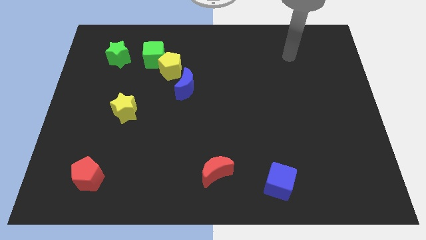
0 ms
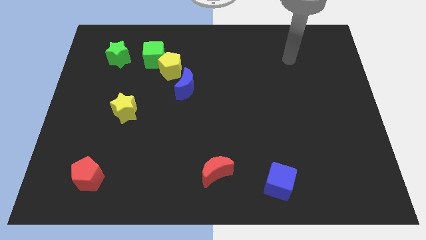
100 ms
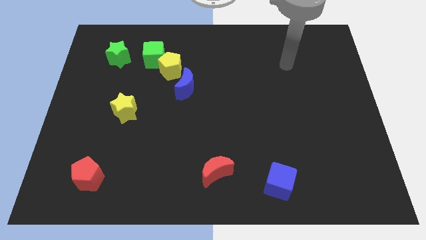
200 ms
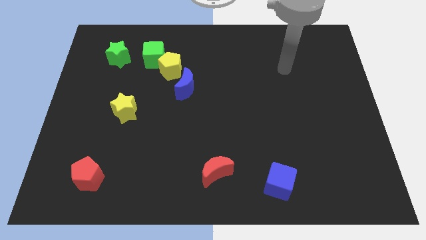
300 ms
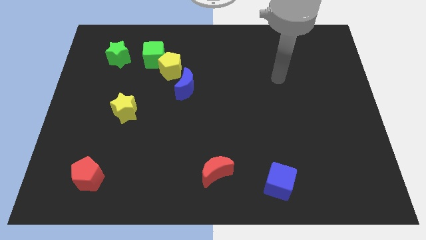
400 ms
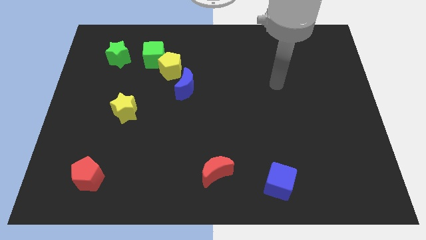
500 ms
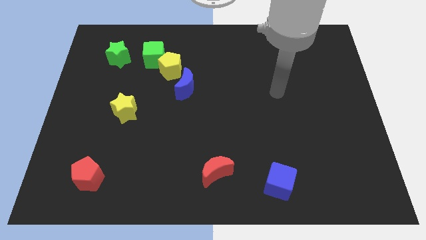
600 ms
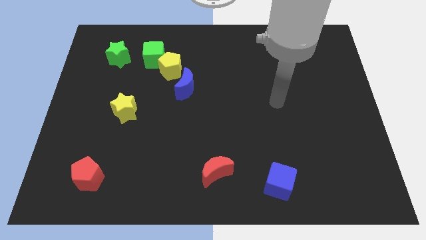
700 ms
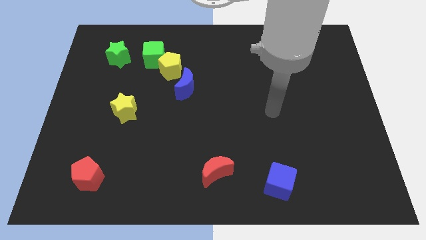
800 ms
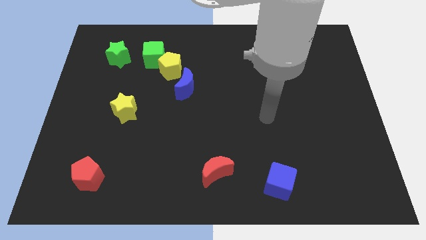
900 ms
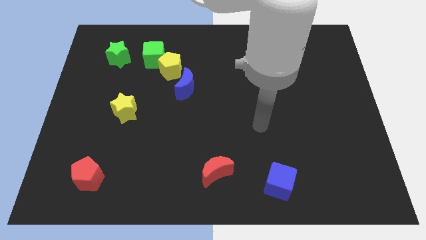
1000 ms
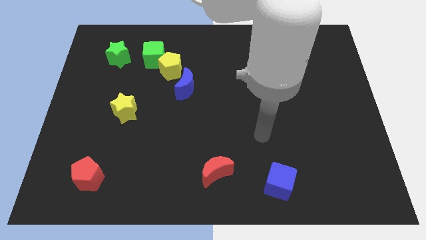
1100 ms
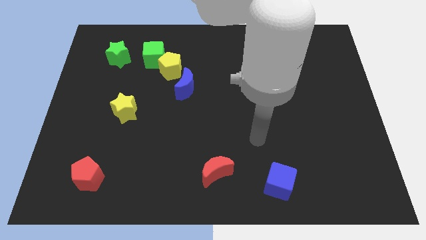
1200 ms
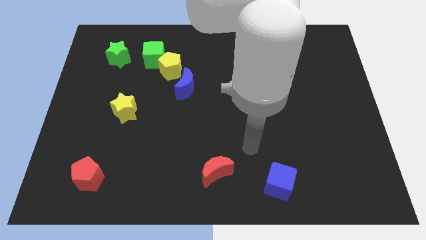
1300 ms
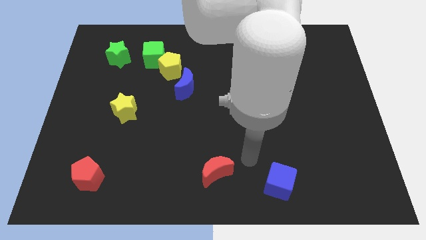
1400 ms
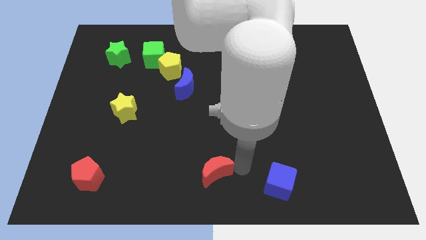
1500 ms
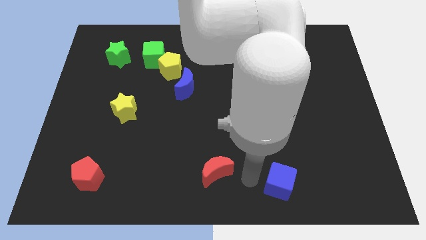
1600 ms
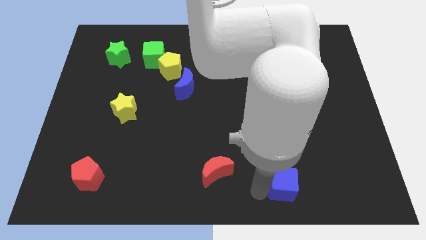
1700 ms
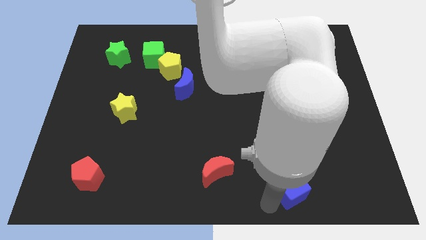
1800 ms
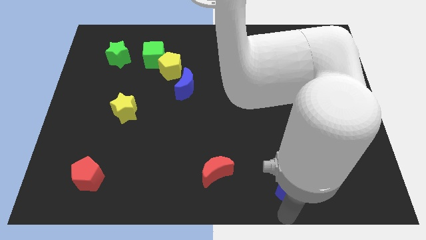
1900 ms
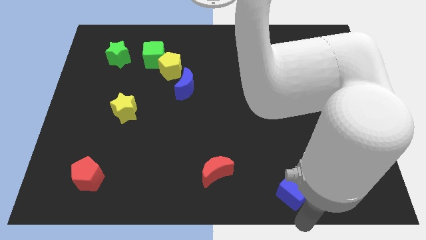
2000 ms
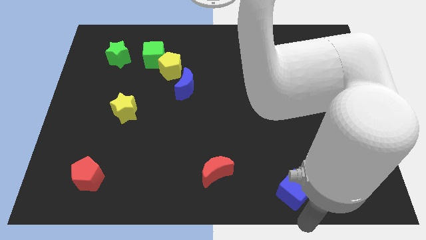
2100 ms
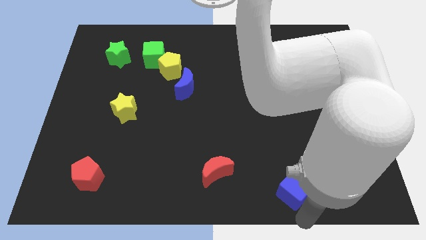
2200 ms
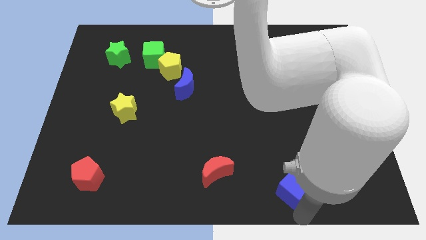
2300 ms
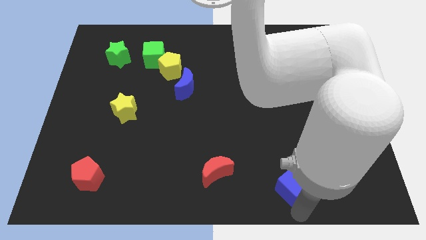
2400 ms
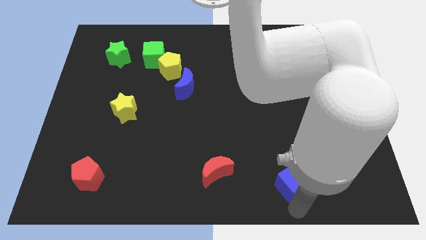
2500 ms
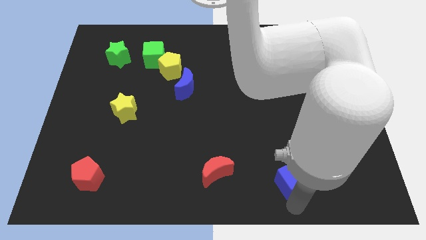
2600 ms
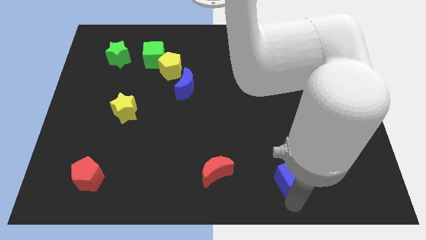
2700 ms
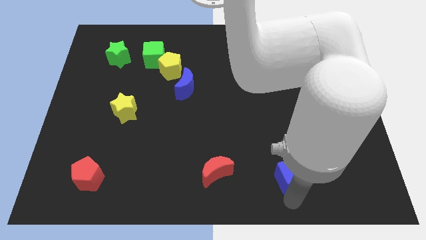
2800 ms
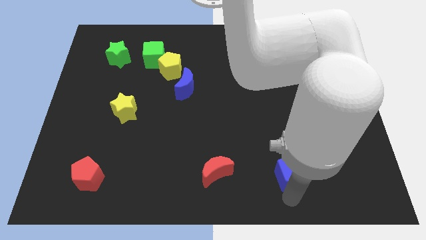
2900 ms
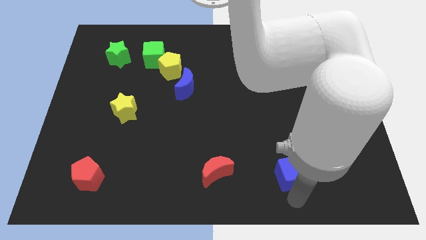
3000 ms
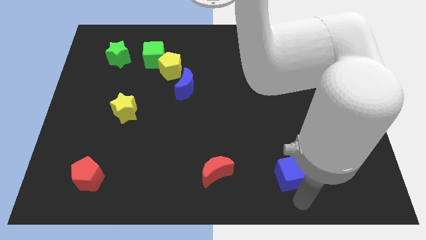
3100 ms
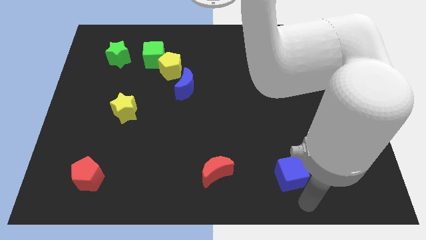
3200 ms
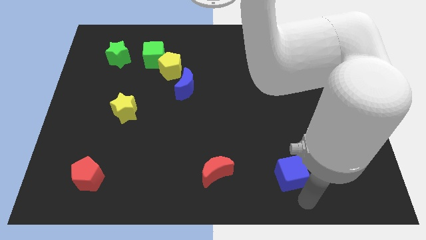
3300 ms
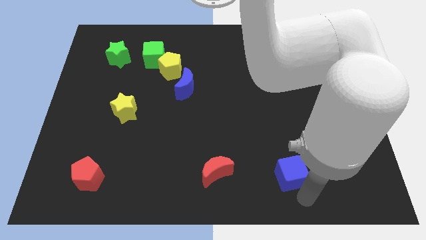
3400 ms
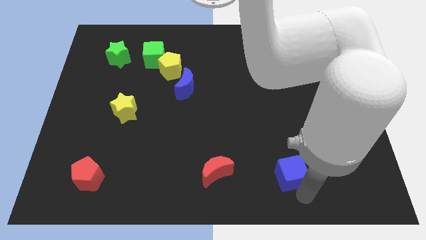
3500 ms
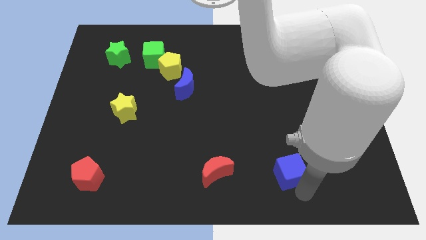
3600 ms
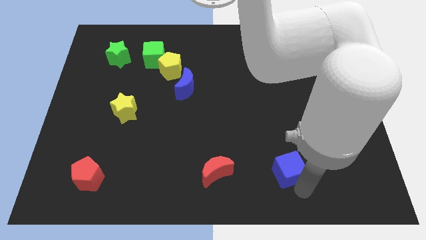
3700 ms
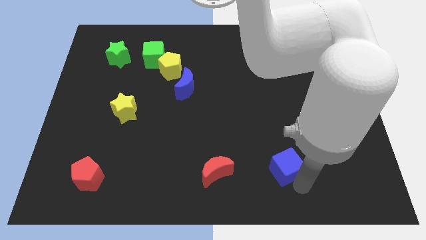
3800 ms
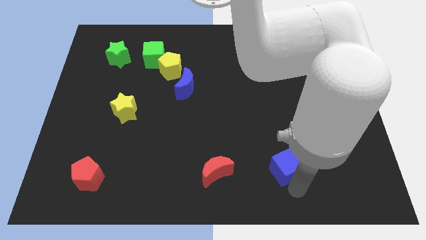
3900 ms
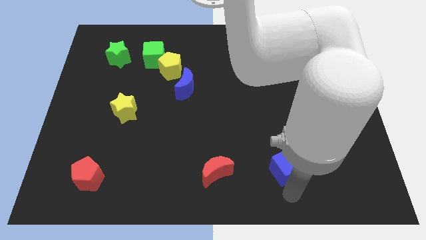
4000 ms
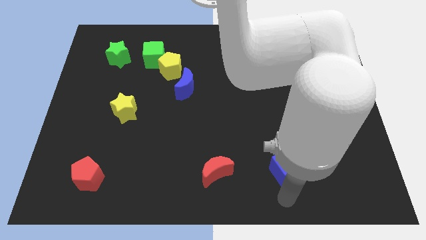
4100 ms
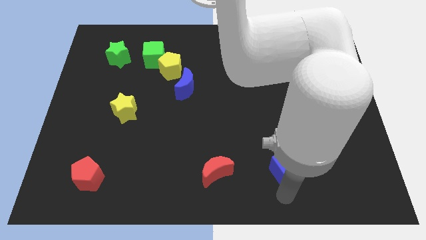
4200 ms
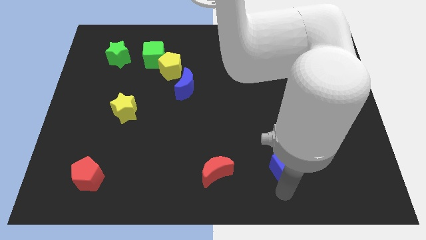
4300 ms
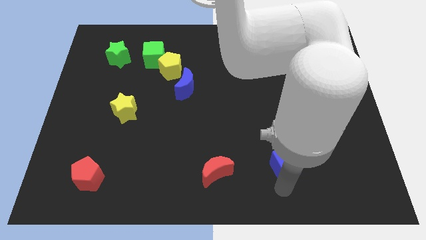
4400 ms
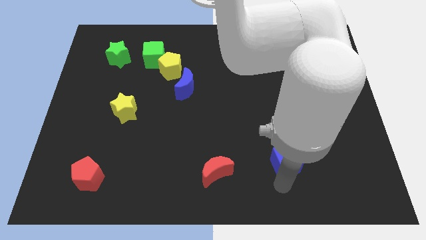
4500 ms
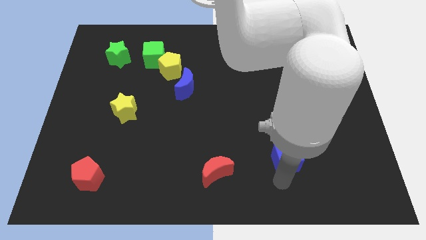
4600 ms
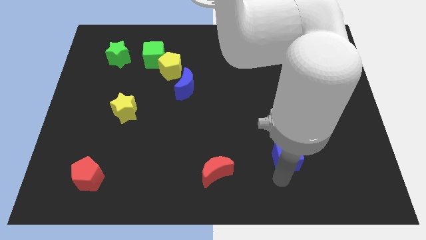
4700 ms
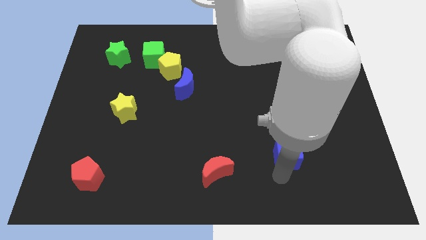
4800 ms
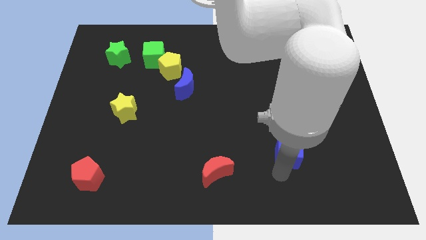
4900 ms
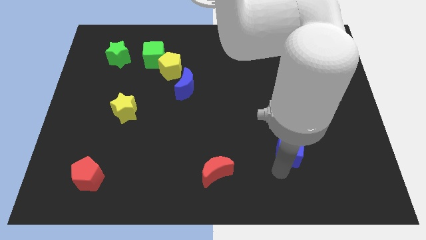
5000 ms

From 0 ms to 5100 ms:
slightly move the blue cube upwards

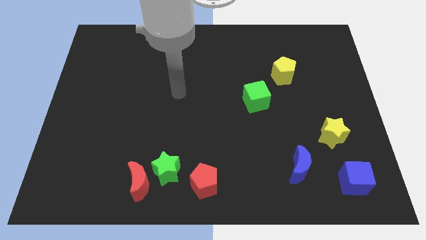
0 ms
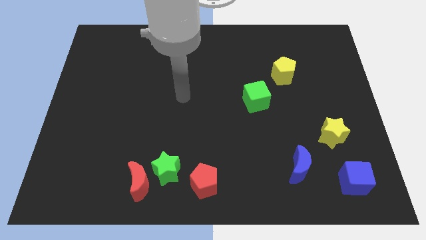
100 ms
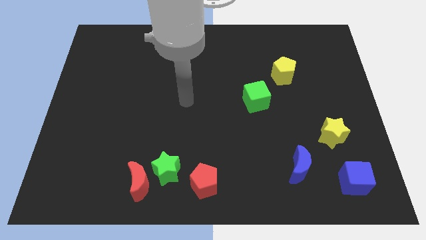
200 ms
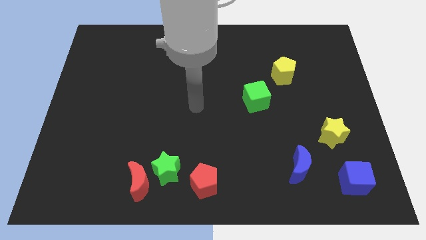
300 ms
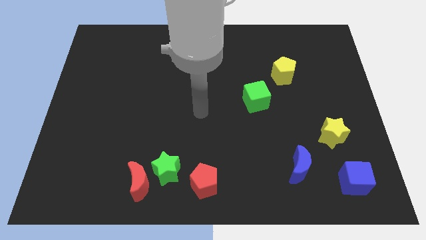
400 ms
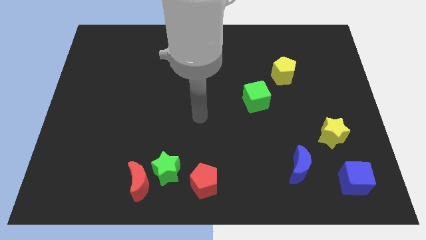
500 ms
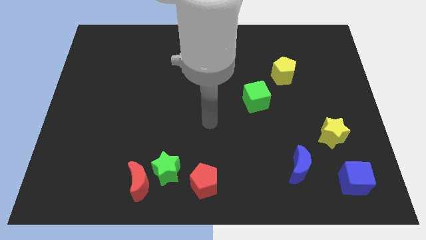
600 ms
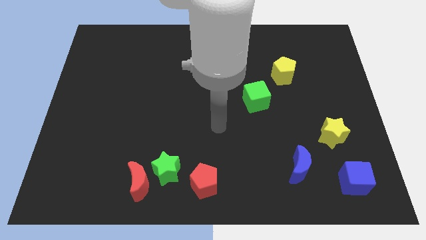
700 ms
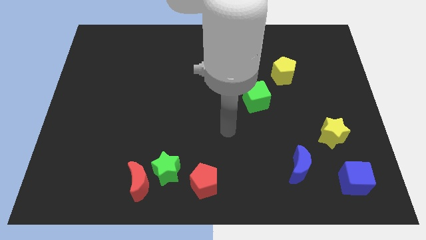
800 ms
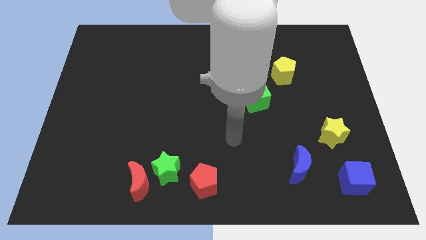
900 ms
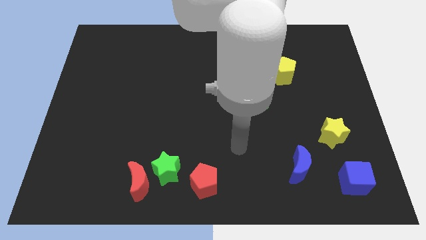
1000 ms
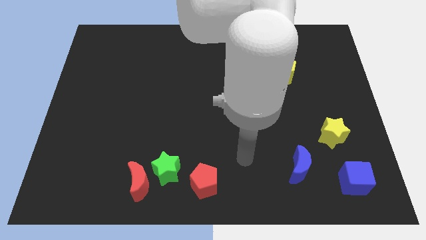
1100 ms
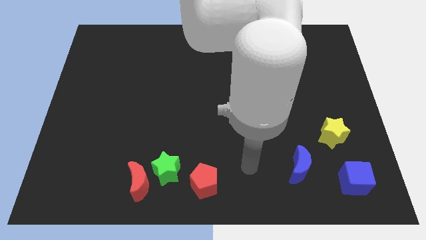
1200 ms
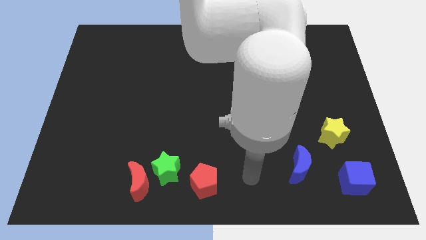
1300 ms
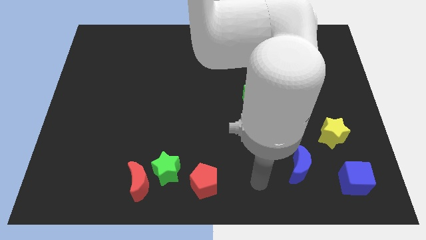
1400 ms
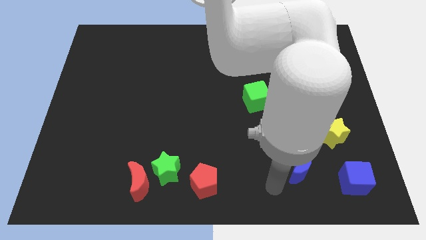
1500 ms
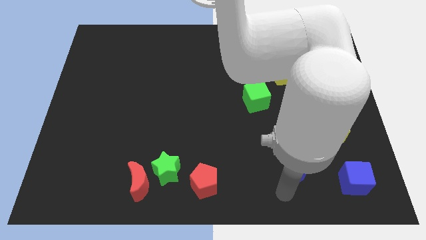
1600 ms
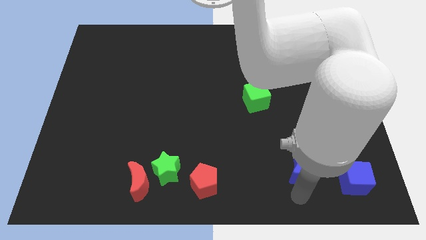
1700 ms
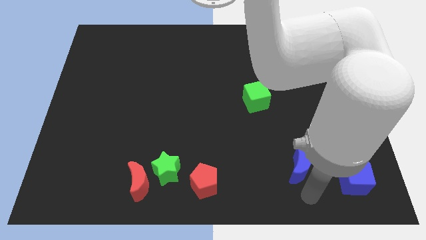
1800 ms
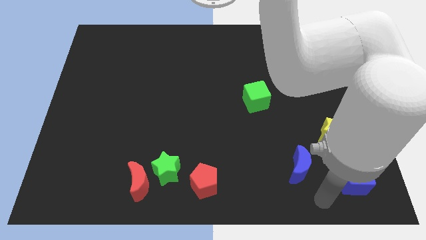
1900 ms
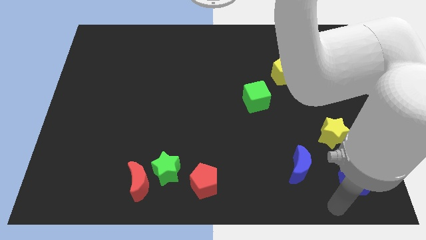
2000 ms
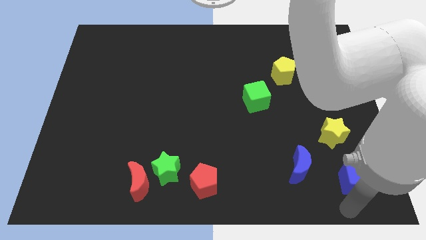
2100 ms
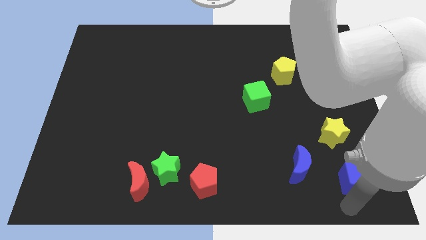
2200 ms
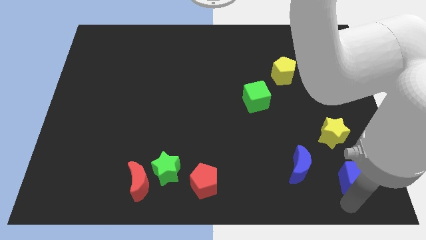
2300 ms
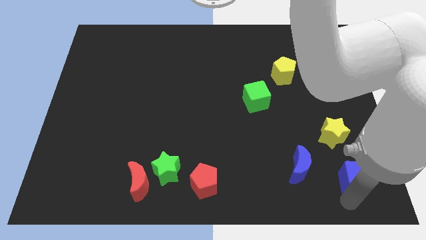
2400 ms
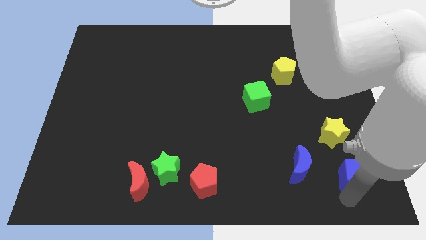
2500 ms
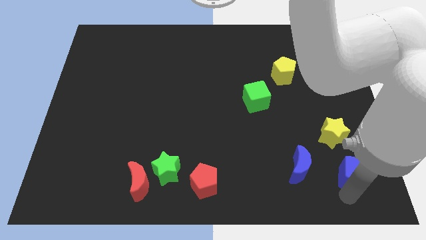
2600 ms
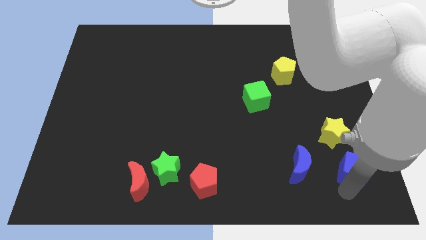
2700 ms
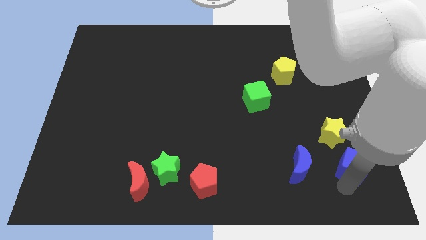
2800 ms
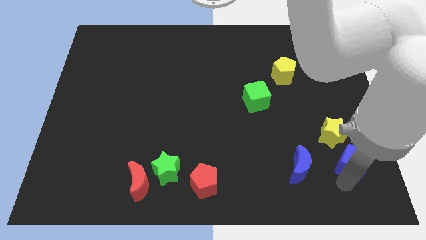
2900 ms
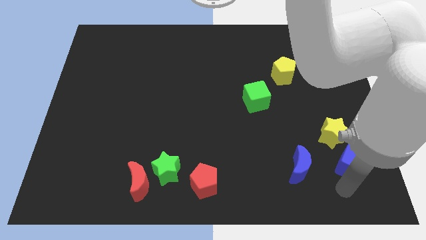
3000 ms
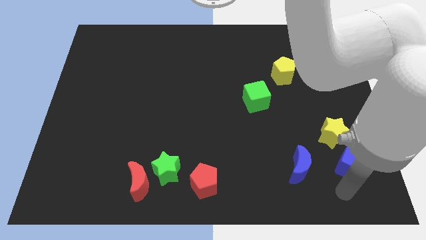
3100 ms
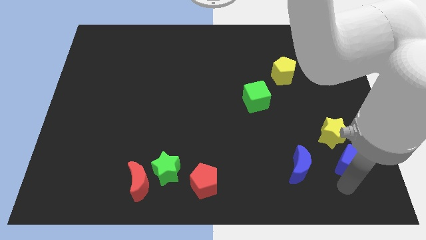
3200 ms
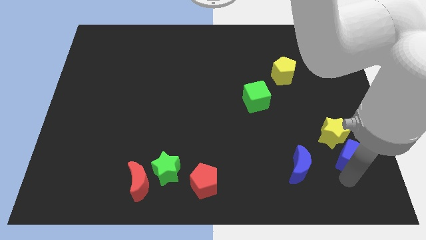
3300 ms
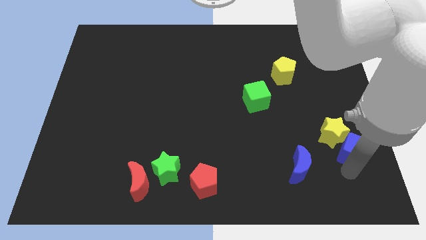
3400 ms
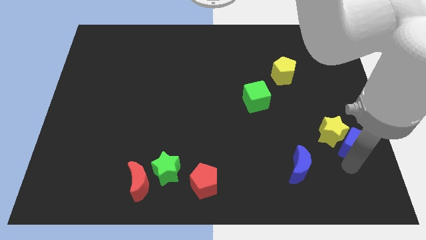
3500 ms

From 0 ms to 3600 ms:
slightly push the blue cube upwards
